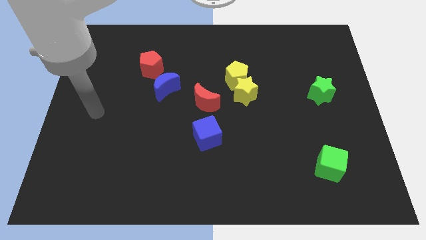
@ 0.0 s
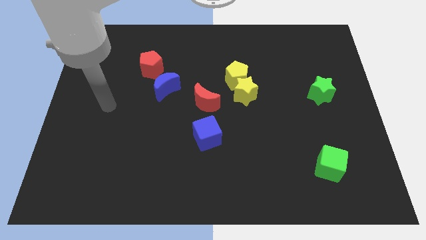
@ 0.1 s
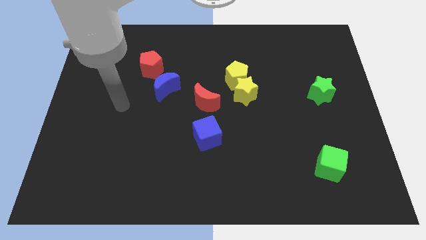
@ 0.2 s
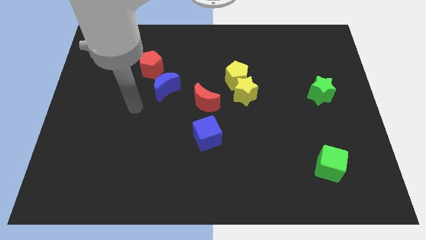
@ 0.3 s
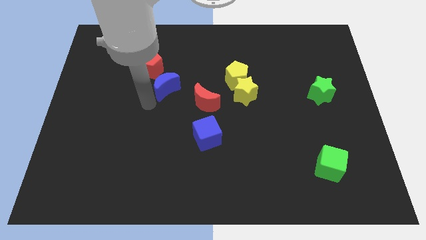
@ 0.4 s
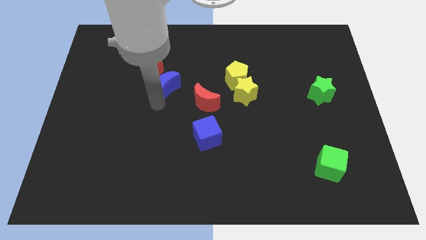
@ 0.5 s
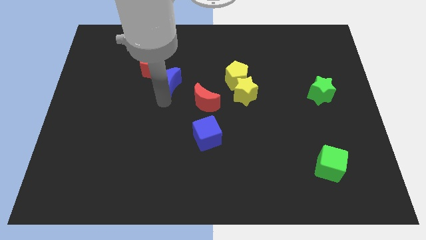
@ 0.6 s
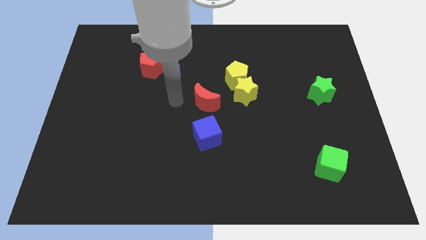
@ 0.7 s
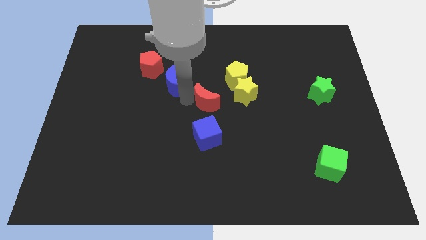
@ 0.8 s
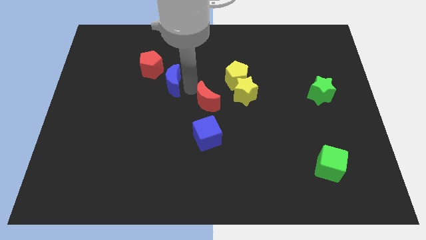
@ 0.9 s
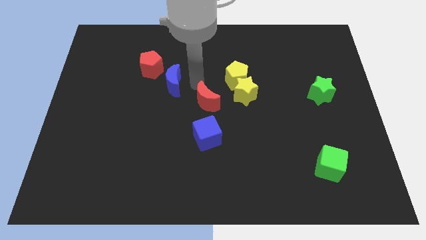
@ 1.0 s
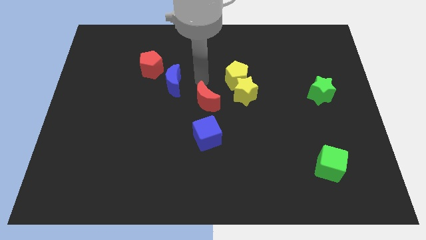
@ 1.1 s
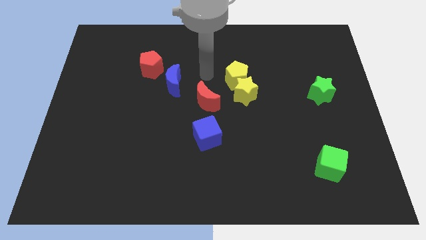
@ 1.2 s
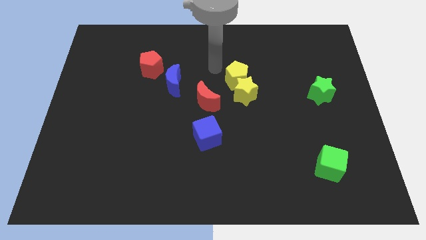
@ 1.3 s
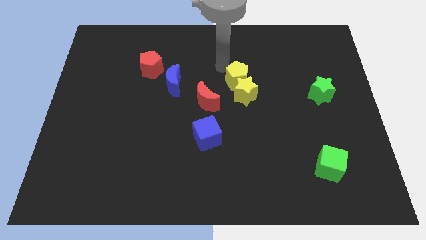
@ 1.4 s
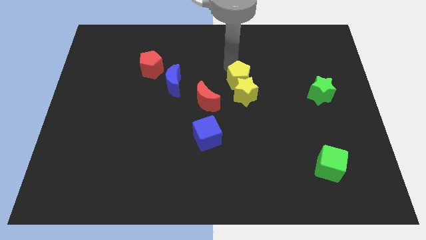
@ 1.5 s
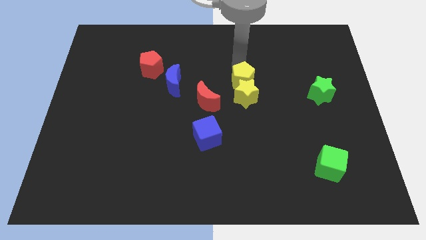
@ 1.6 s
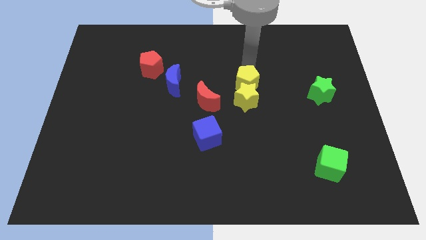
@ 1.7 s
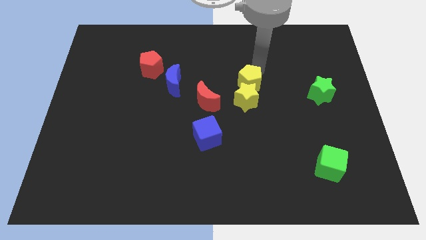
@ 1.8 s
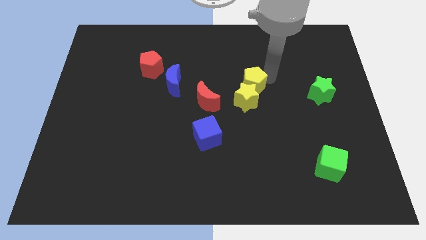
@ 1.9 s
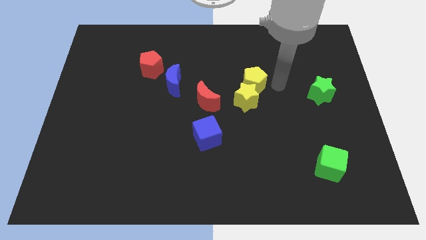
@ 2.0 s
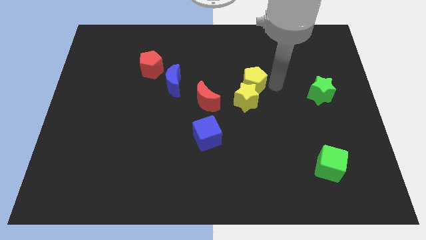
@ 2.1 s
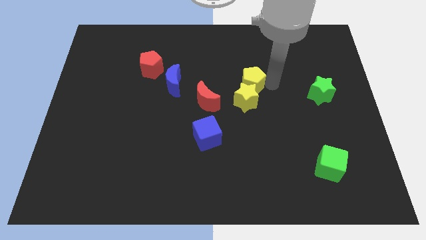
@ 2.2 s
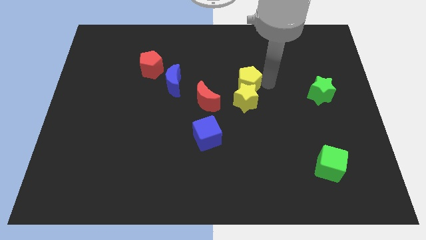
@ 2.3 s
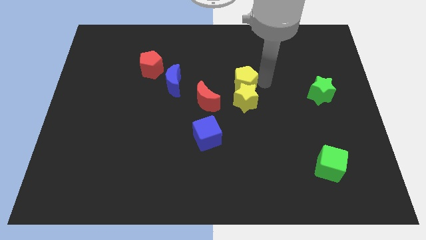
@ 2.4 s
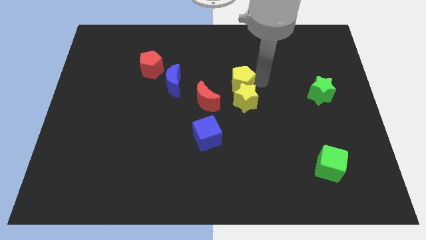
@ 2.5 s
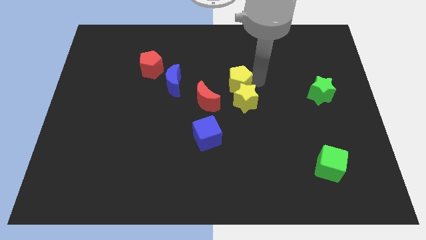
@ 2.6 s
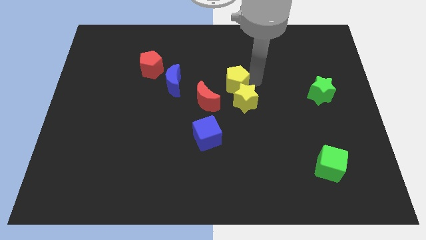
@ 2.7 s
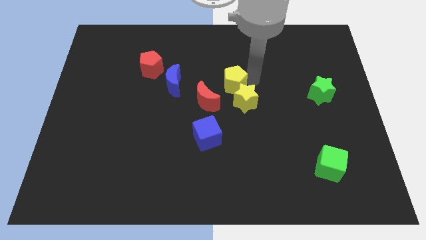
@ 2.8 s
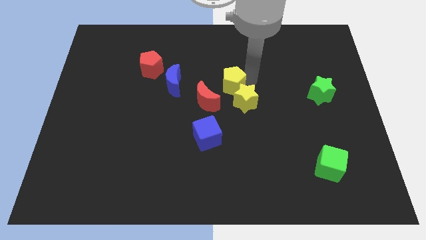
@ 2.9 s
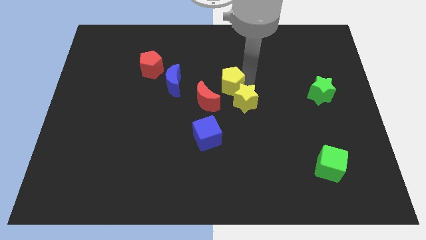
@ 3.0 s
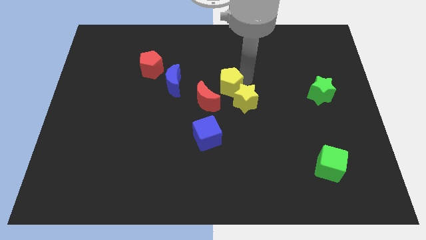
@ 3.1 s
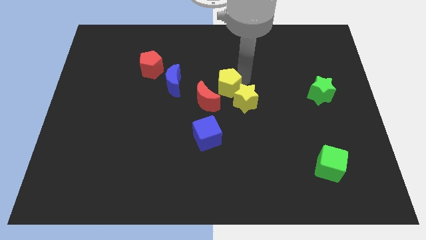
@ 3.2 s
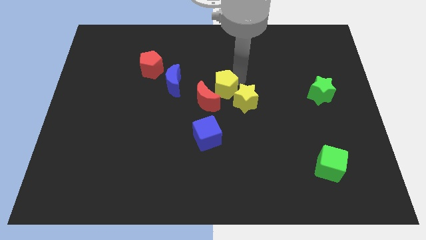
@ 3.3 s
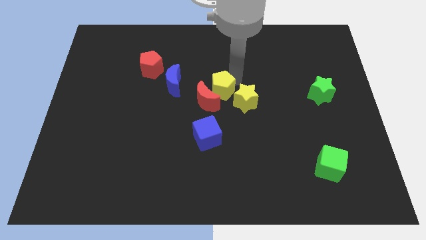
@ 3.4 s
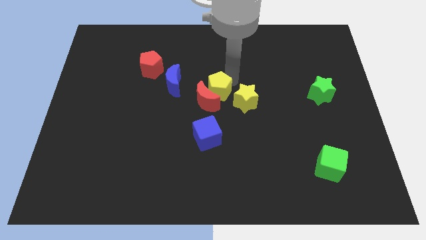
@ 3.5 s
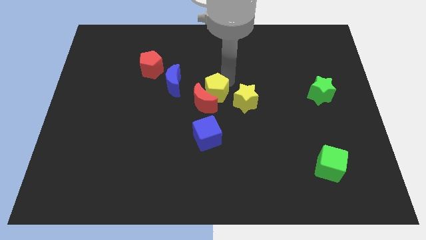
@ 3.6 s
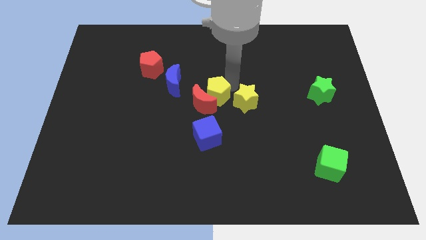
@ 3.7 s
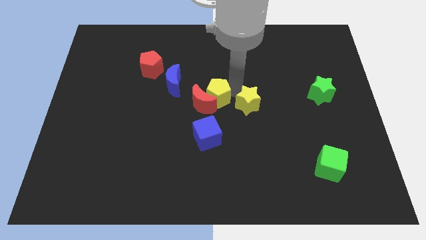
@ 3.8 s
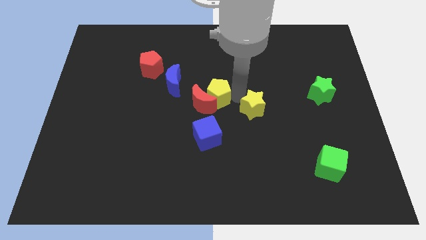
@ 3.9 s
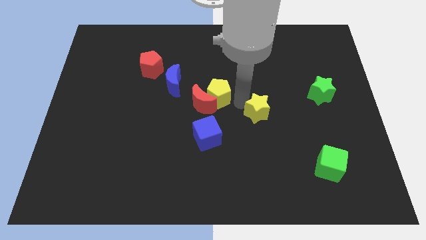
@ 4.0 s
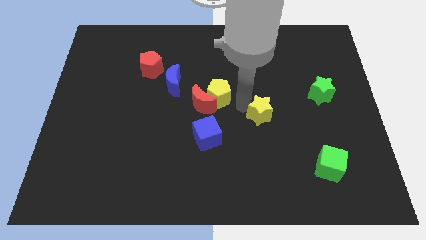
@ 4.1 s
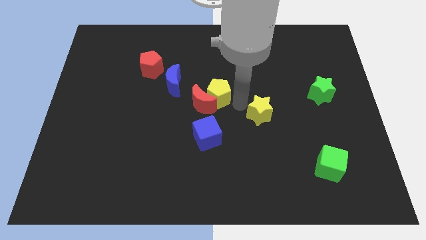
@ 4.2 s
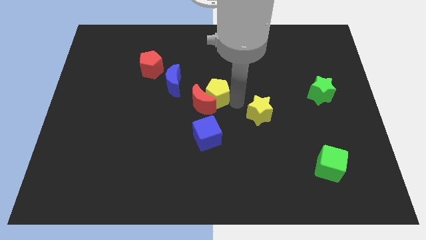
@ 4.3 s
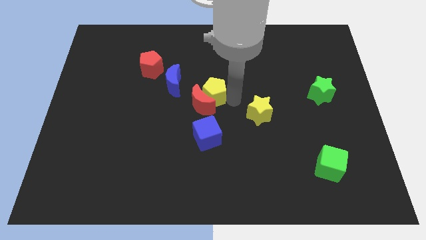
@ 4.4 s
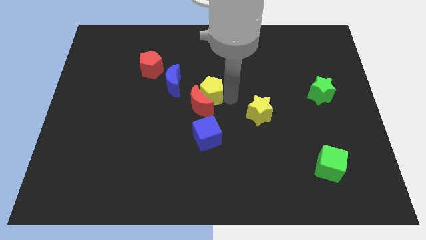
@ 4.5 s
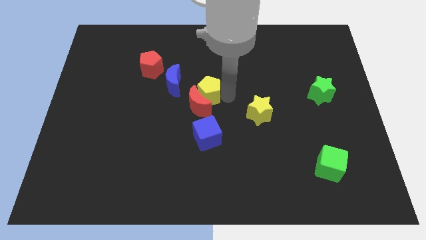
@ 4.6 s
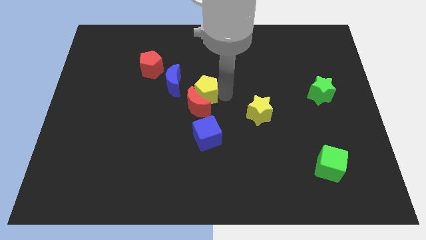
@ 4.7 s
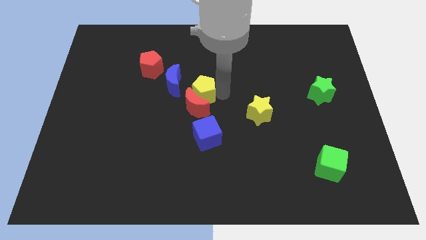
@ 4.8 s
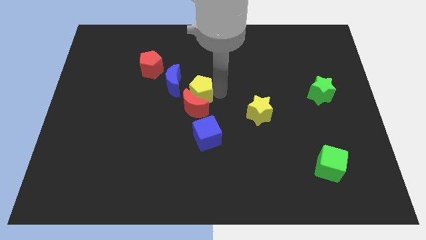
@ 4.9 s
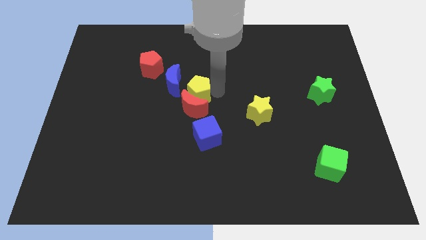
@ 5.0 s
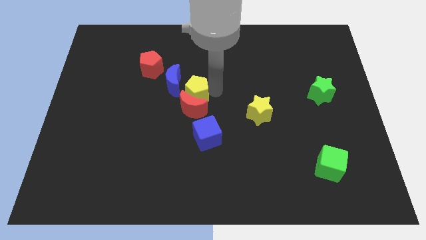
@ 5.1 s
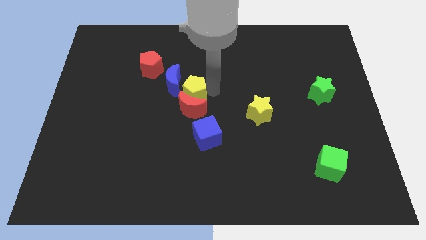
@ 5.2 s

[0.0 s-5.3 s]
move the yellow pentagon towards the blue moon

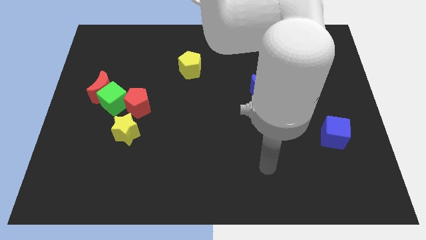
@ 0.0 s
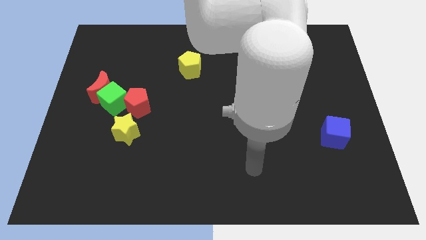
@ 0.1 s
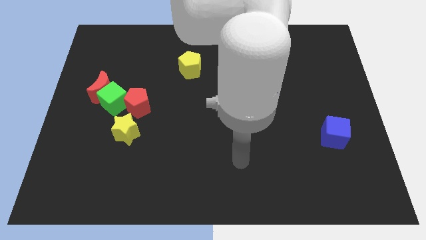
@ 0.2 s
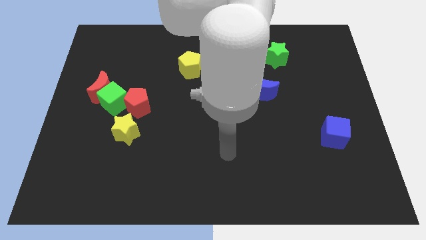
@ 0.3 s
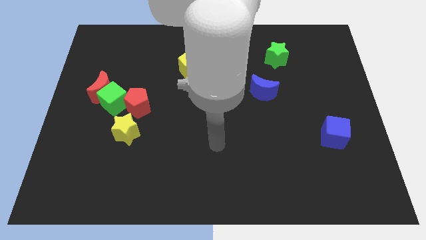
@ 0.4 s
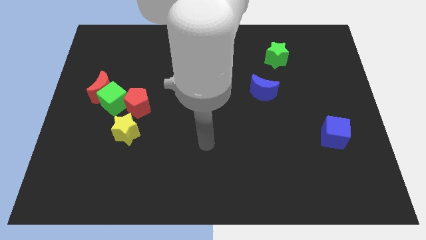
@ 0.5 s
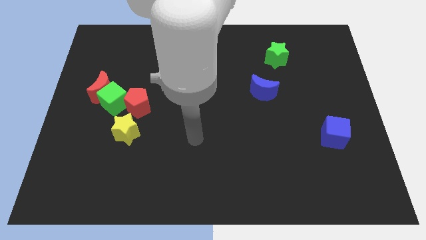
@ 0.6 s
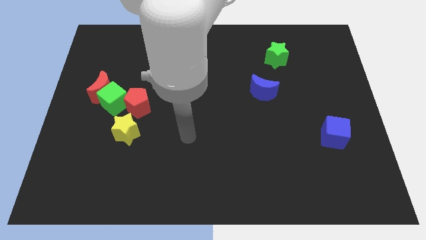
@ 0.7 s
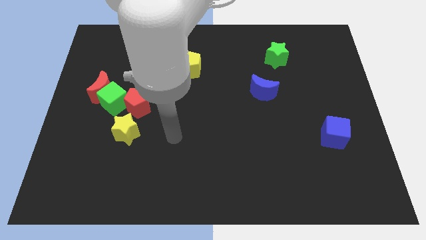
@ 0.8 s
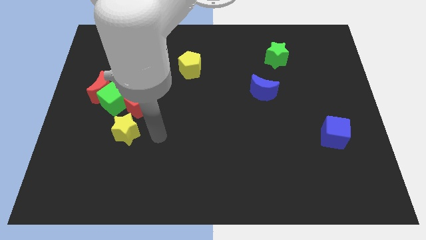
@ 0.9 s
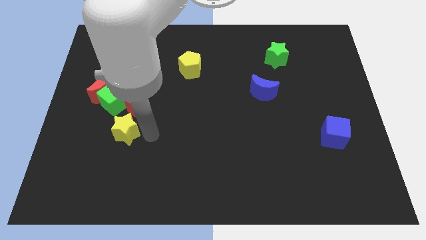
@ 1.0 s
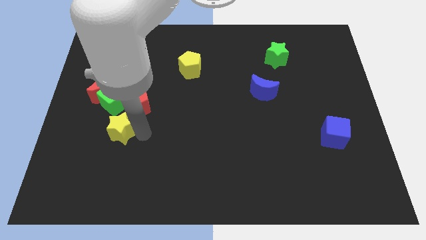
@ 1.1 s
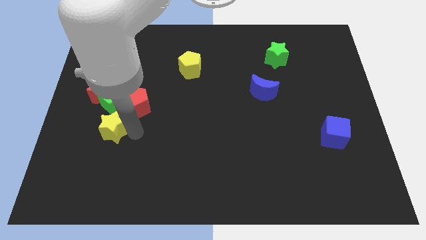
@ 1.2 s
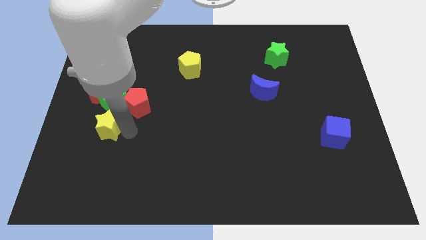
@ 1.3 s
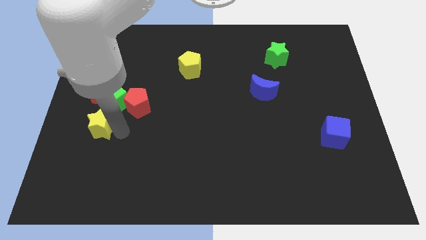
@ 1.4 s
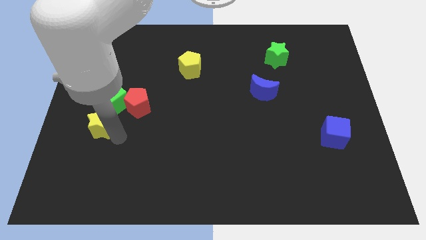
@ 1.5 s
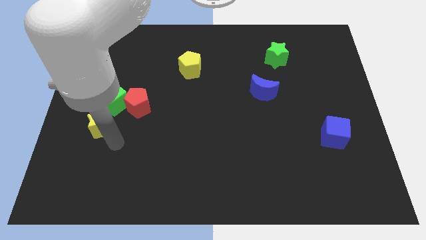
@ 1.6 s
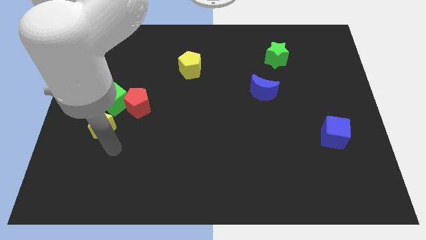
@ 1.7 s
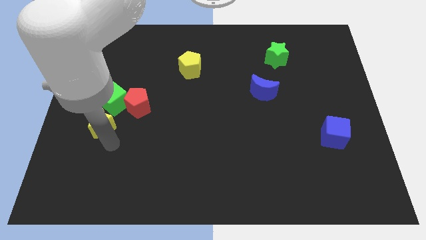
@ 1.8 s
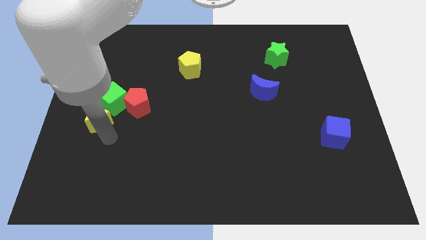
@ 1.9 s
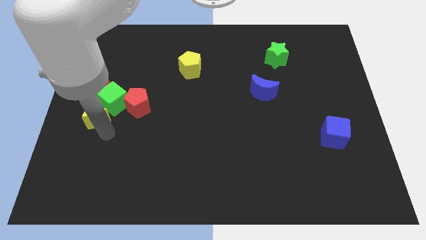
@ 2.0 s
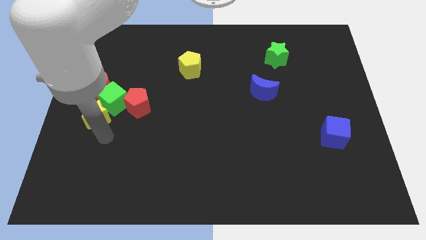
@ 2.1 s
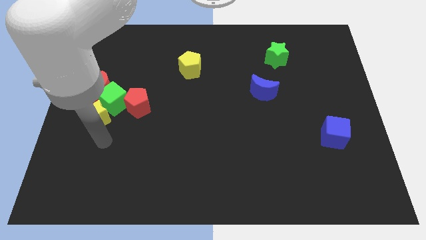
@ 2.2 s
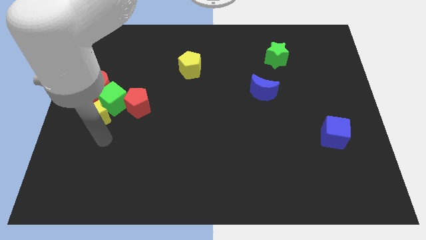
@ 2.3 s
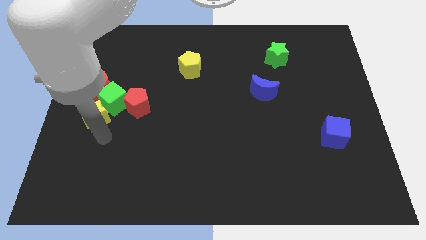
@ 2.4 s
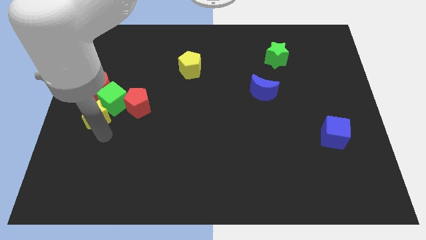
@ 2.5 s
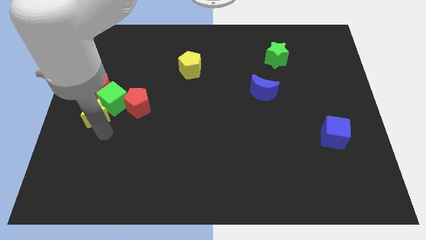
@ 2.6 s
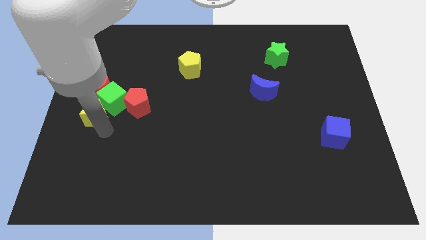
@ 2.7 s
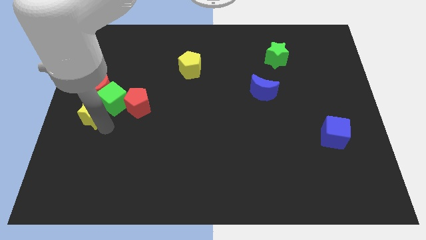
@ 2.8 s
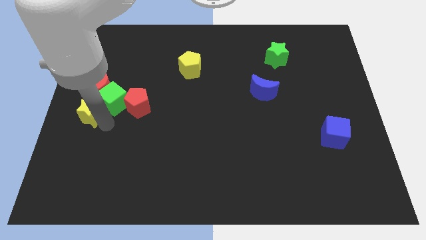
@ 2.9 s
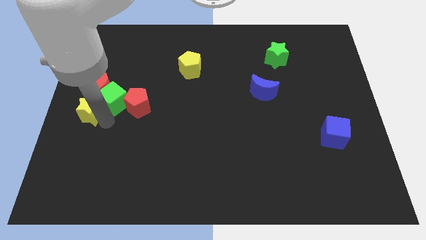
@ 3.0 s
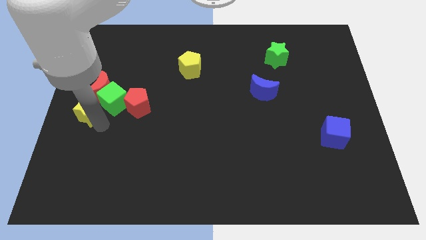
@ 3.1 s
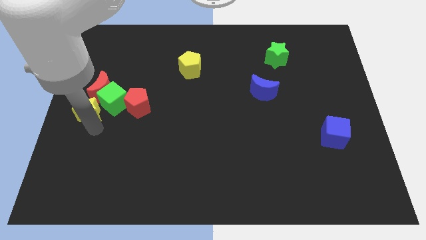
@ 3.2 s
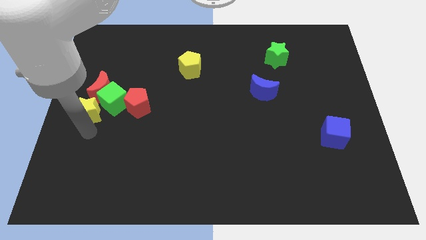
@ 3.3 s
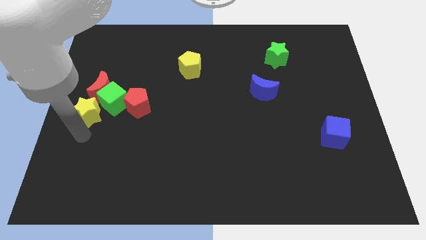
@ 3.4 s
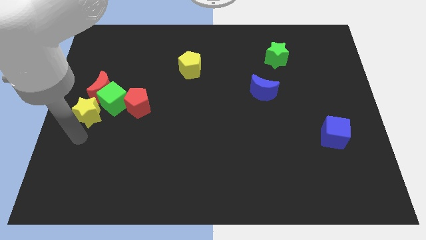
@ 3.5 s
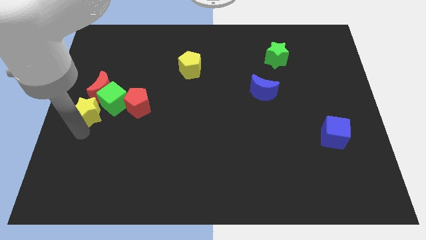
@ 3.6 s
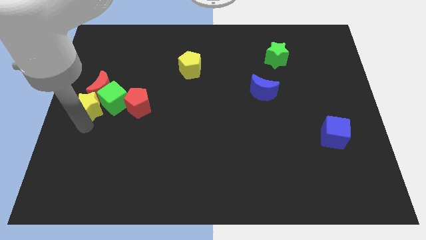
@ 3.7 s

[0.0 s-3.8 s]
put the yellow star to the red moon
